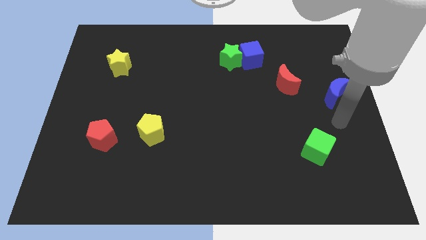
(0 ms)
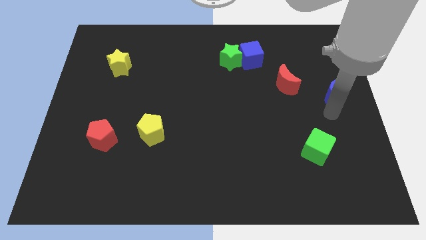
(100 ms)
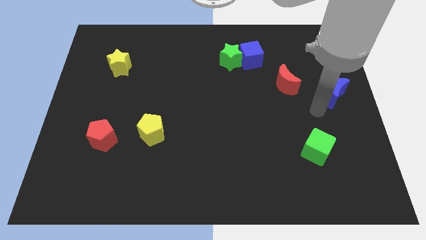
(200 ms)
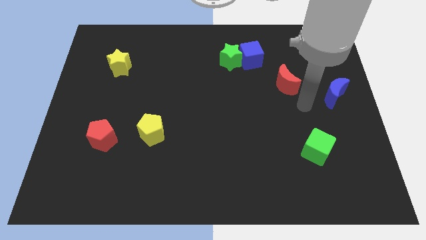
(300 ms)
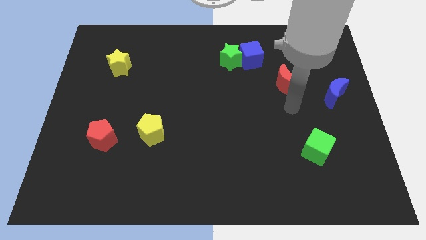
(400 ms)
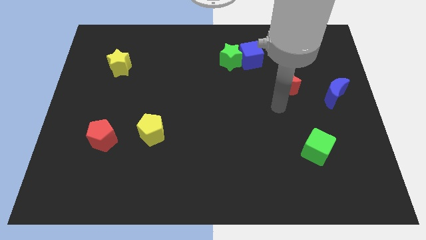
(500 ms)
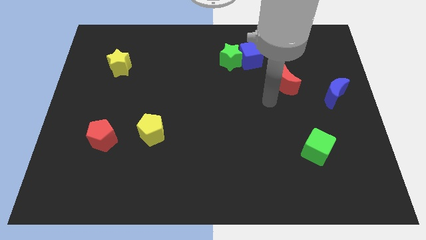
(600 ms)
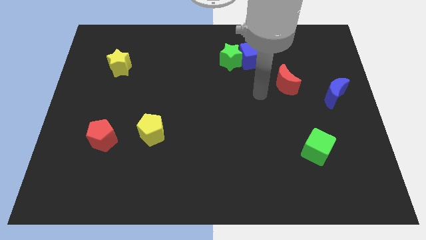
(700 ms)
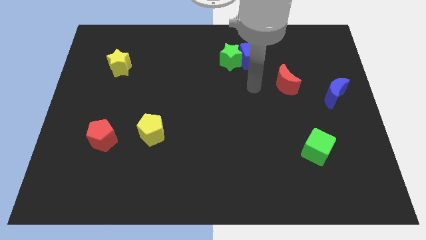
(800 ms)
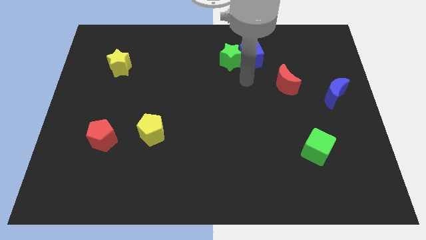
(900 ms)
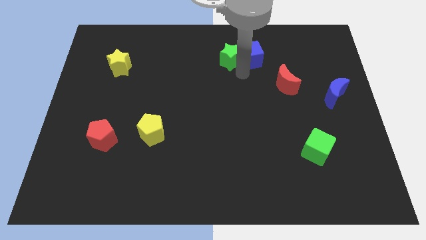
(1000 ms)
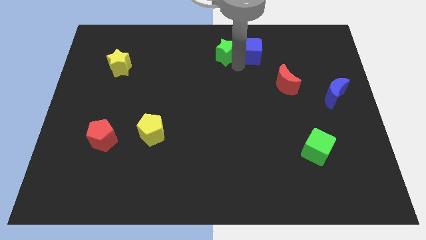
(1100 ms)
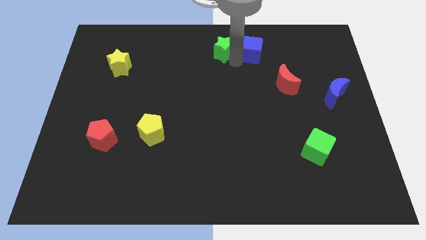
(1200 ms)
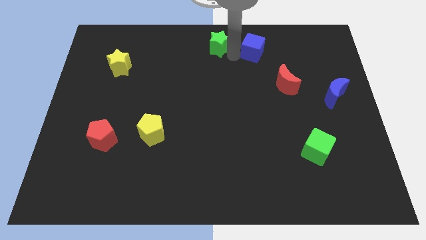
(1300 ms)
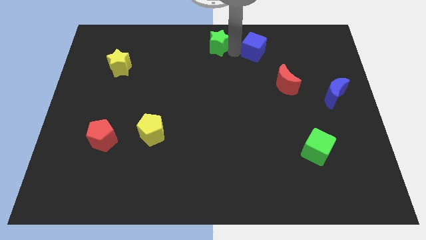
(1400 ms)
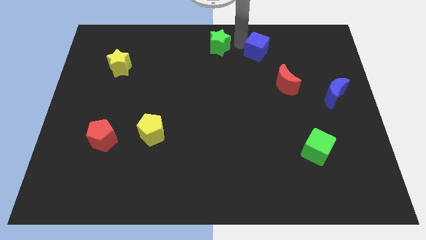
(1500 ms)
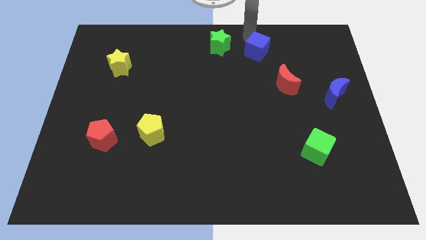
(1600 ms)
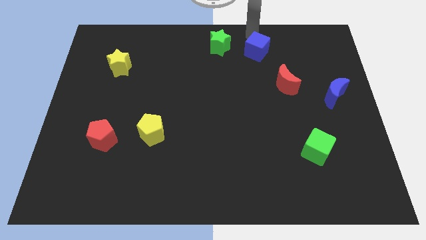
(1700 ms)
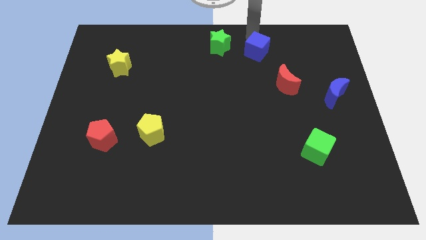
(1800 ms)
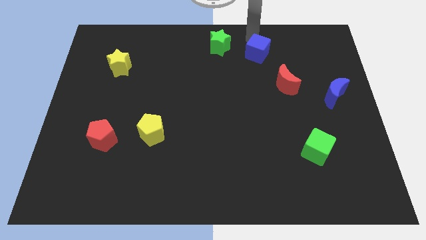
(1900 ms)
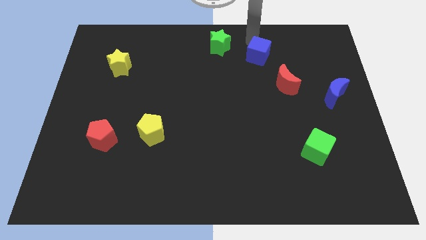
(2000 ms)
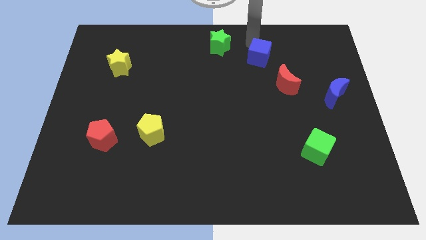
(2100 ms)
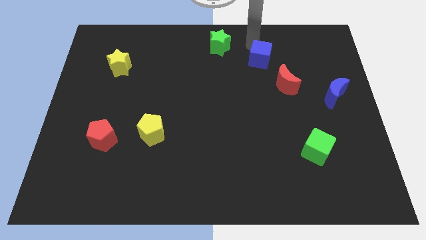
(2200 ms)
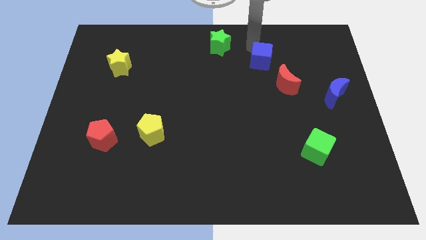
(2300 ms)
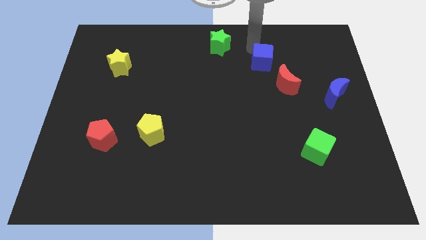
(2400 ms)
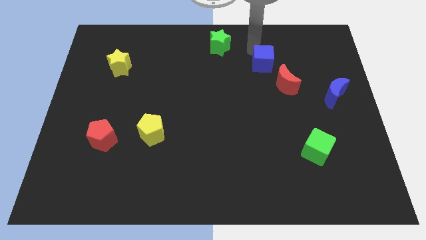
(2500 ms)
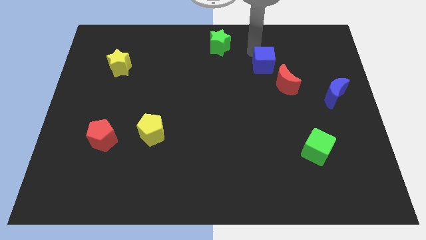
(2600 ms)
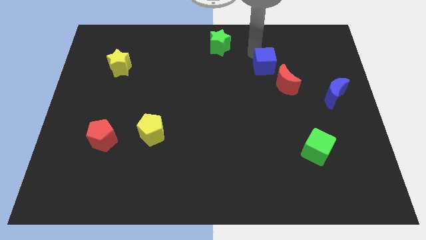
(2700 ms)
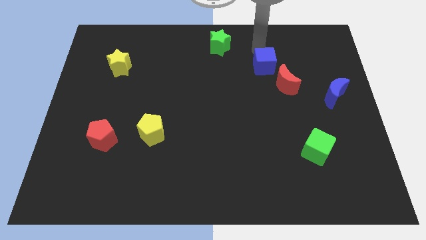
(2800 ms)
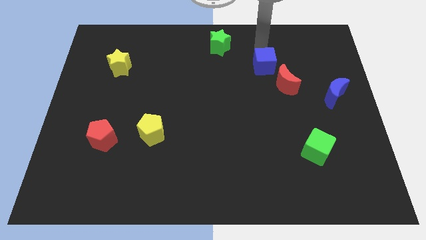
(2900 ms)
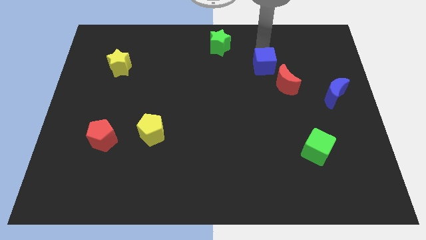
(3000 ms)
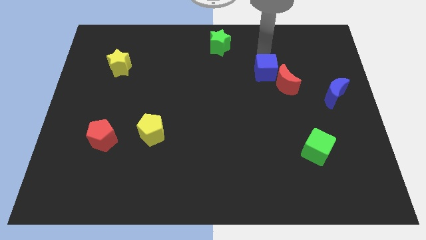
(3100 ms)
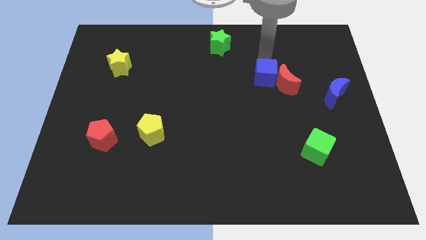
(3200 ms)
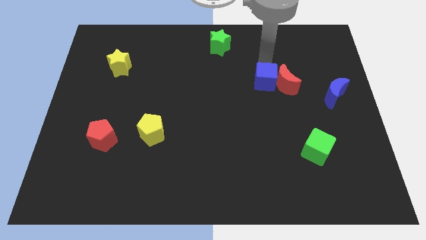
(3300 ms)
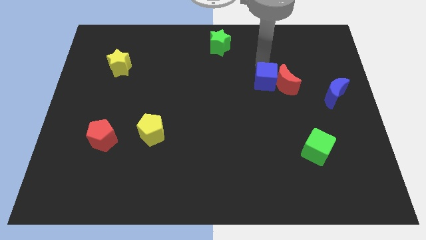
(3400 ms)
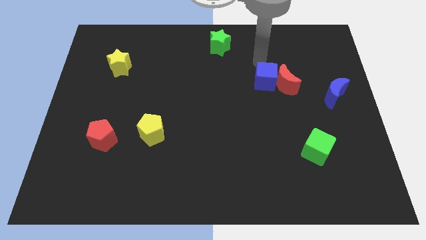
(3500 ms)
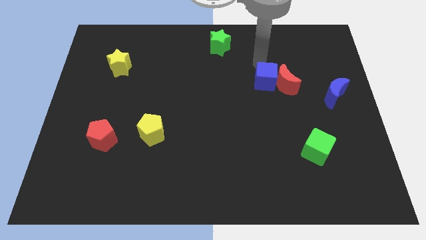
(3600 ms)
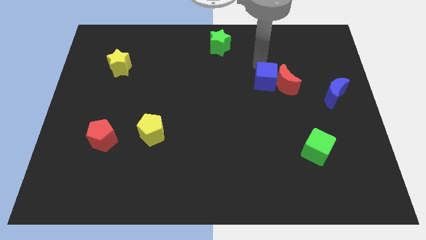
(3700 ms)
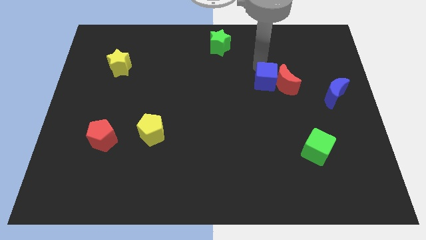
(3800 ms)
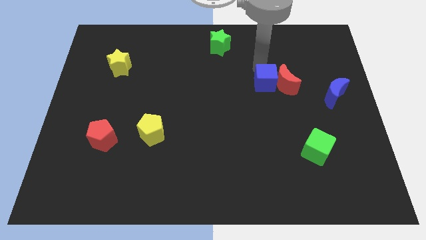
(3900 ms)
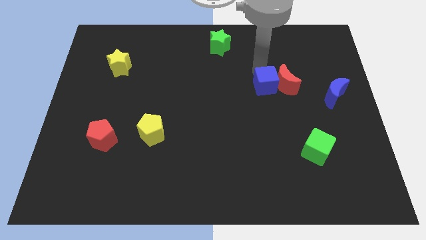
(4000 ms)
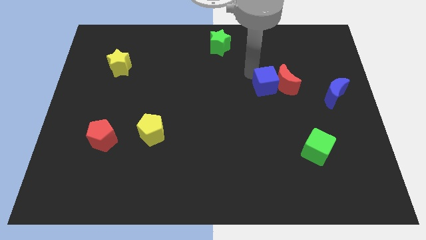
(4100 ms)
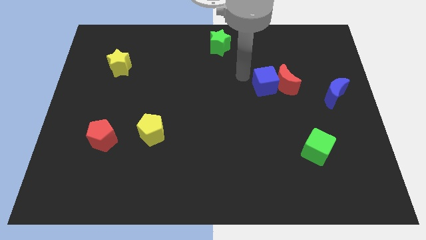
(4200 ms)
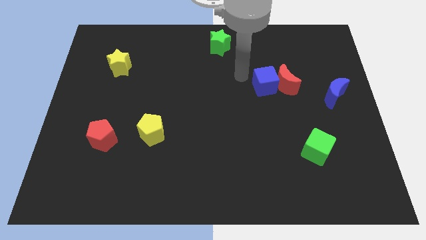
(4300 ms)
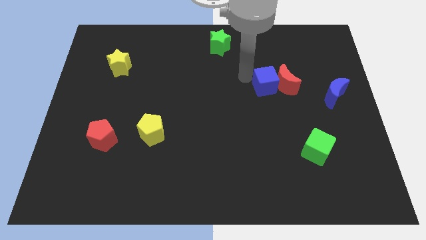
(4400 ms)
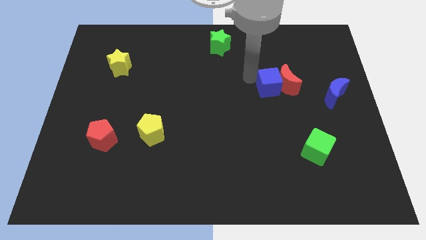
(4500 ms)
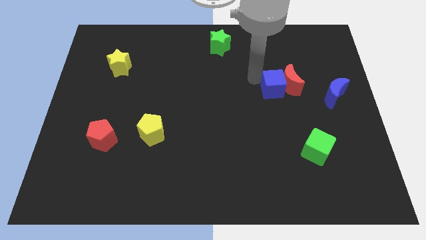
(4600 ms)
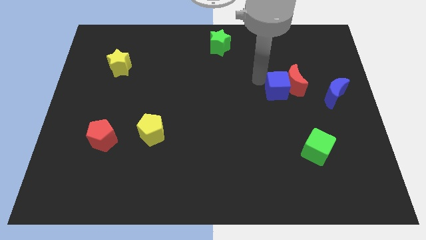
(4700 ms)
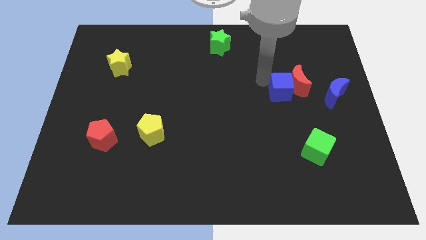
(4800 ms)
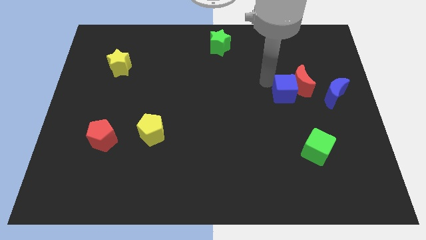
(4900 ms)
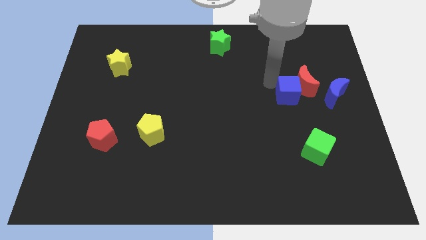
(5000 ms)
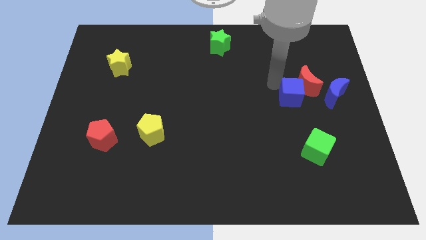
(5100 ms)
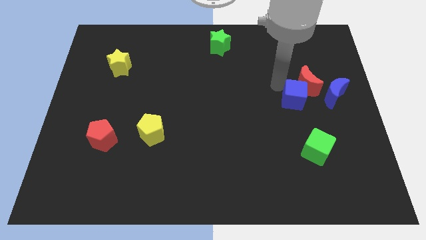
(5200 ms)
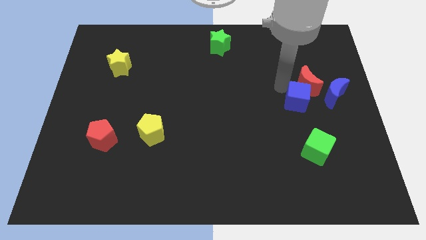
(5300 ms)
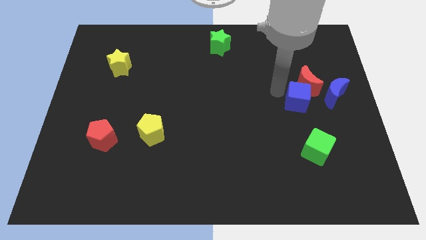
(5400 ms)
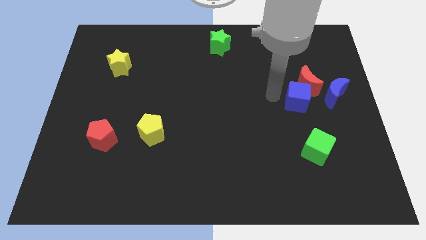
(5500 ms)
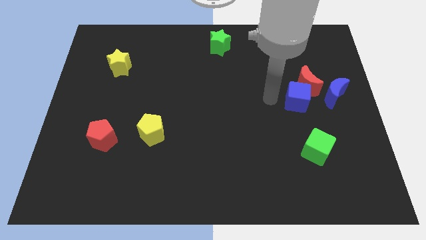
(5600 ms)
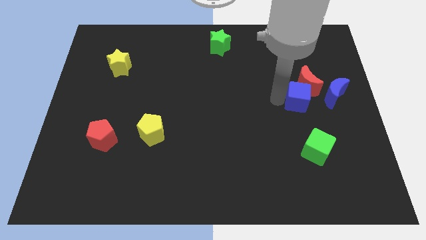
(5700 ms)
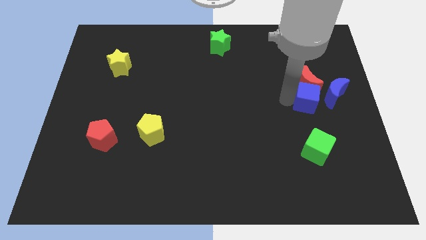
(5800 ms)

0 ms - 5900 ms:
move the blue cube diagonally down and to the right of the red moon

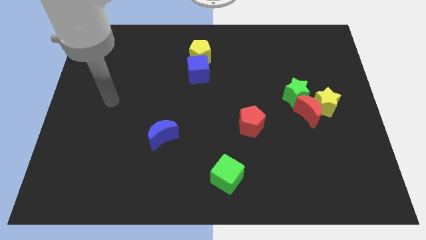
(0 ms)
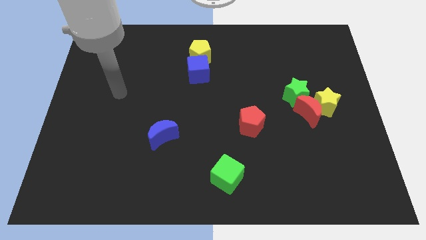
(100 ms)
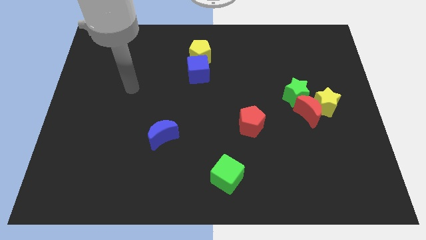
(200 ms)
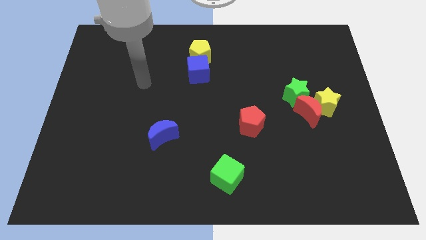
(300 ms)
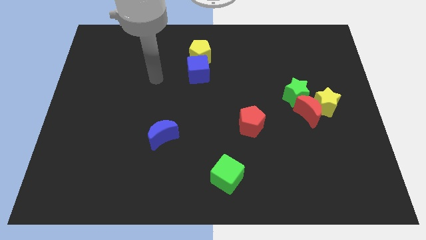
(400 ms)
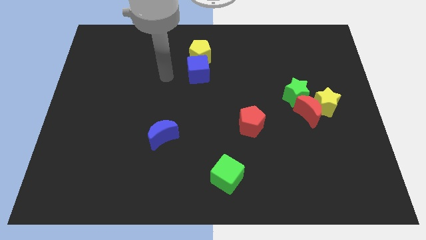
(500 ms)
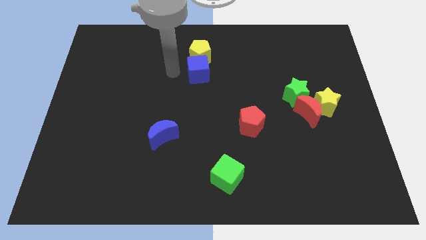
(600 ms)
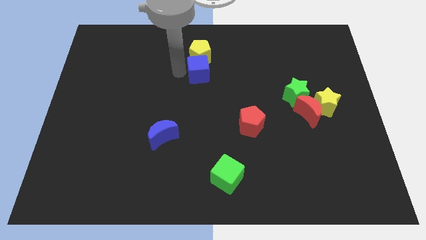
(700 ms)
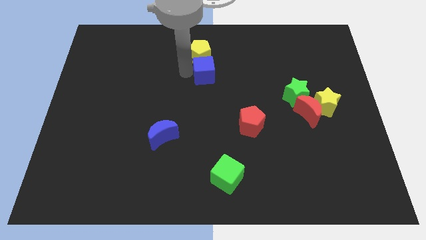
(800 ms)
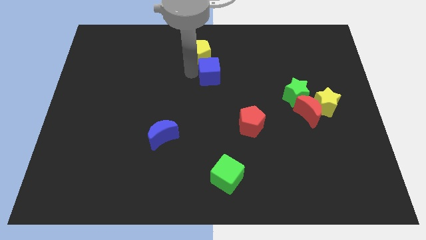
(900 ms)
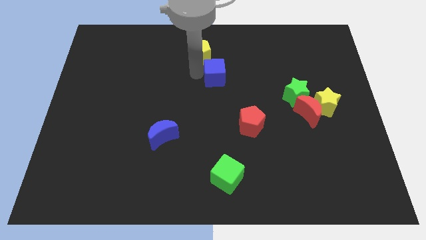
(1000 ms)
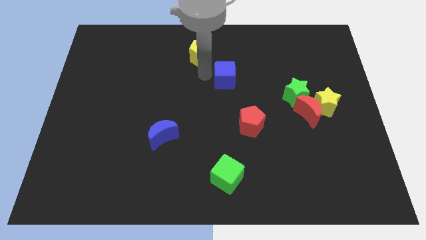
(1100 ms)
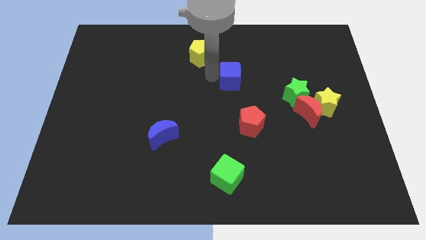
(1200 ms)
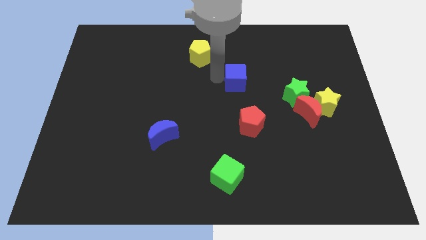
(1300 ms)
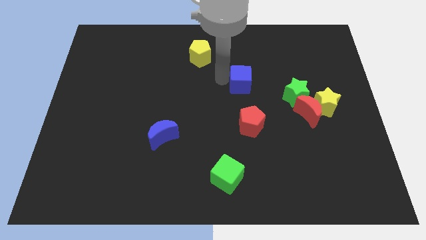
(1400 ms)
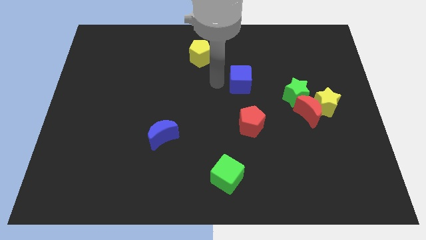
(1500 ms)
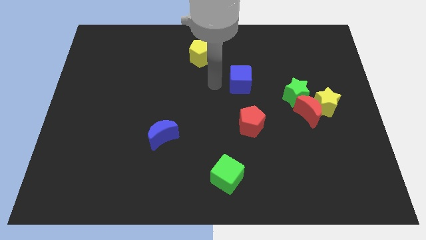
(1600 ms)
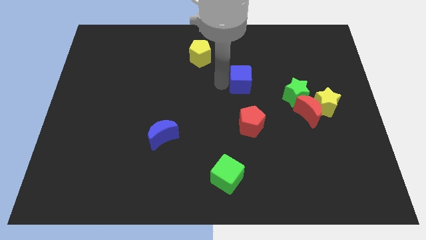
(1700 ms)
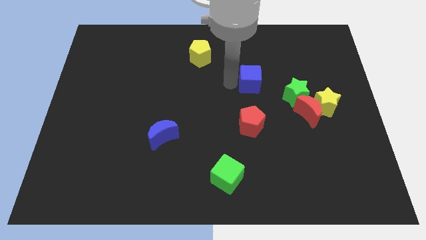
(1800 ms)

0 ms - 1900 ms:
move the blue cube to the top left of the green star
